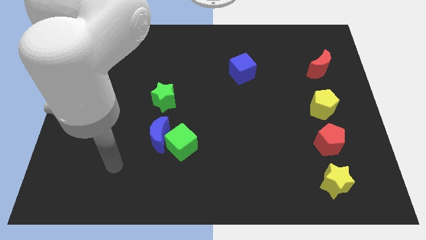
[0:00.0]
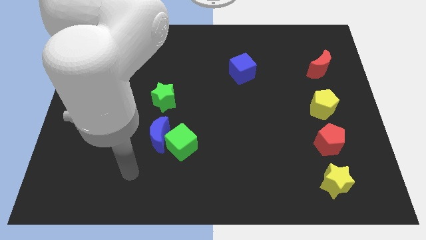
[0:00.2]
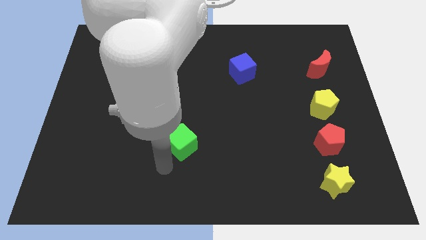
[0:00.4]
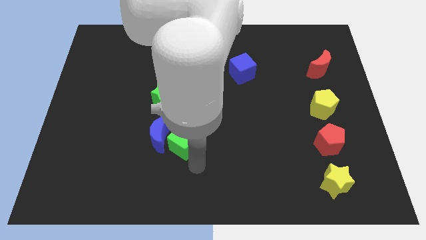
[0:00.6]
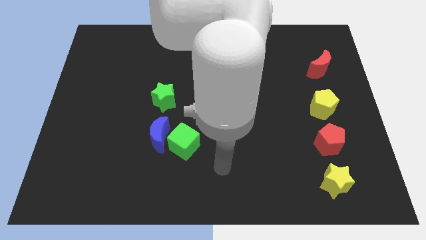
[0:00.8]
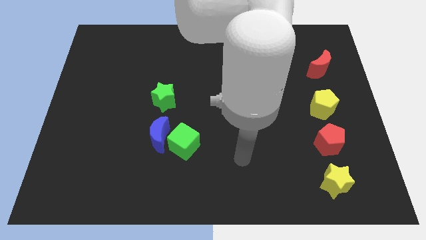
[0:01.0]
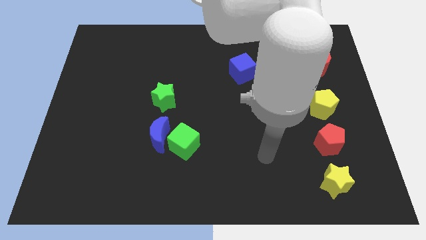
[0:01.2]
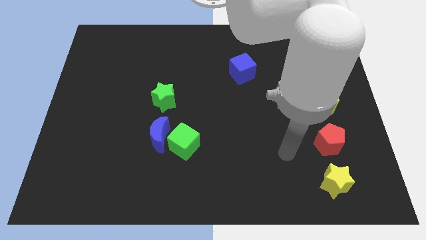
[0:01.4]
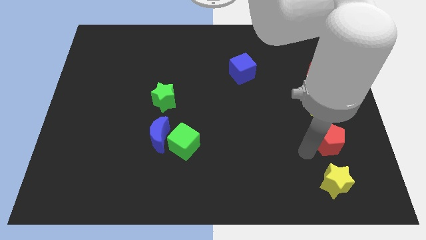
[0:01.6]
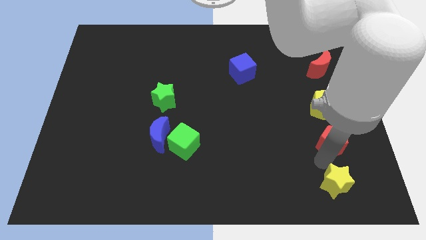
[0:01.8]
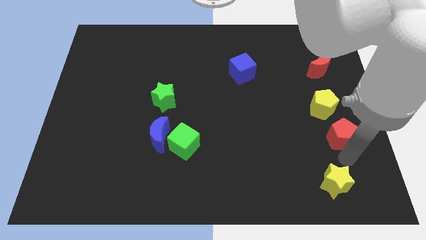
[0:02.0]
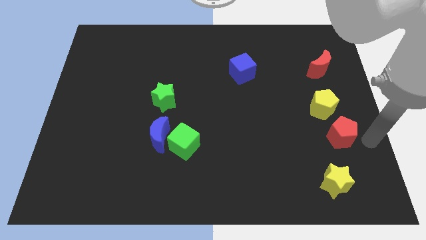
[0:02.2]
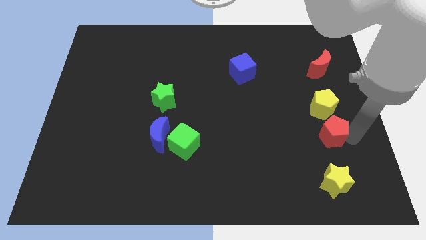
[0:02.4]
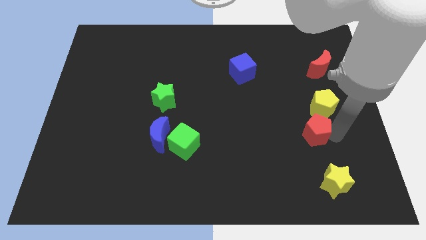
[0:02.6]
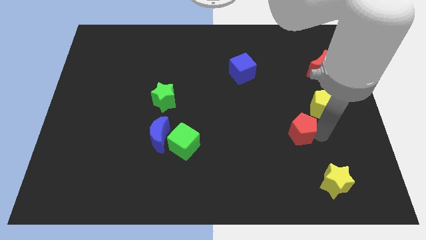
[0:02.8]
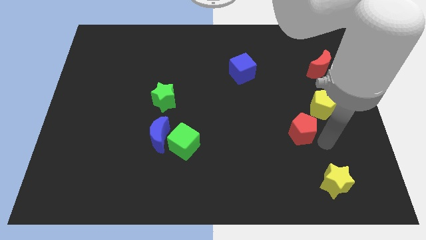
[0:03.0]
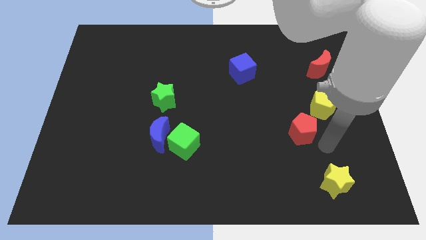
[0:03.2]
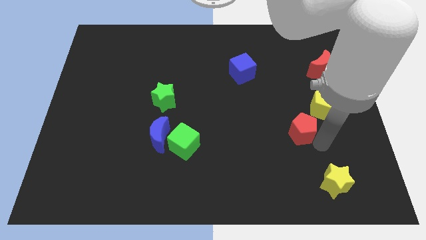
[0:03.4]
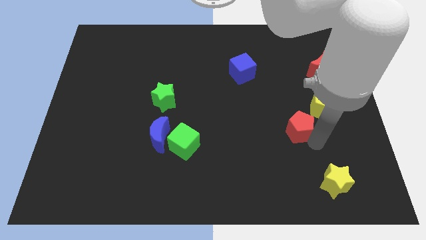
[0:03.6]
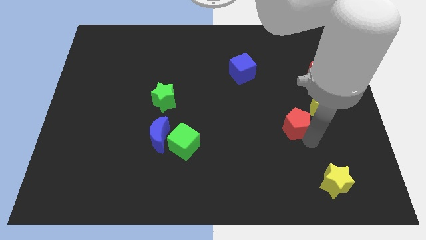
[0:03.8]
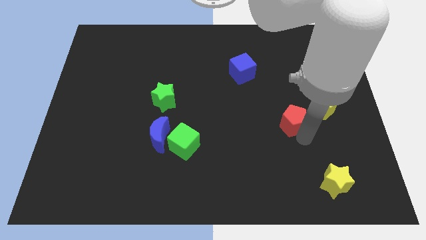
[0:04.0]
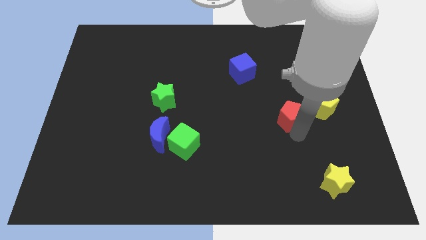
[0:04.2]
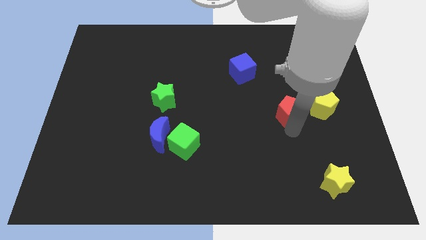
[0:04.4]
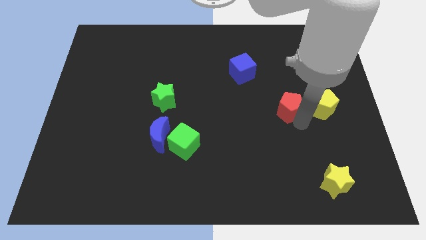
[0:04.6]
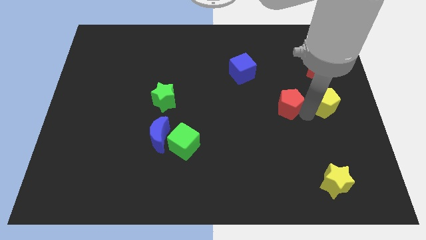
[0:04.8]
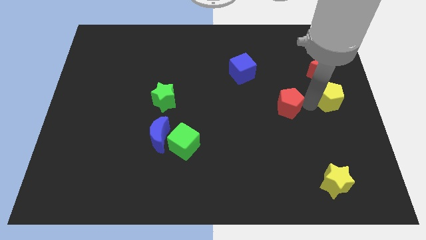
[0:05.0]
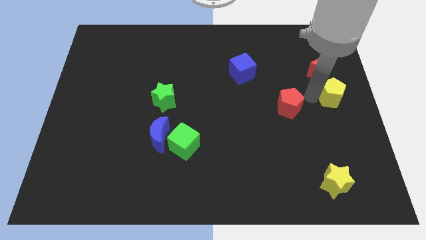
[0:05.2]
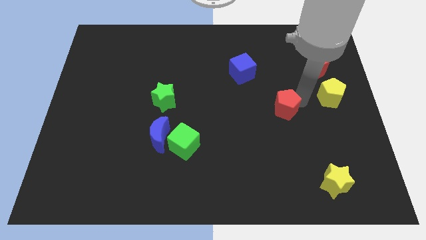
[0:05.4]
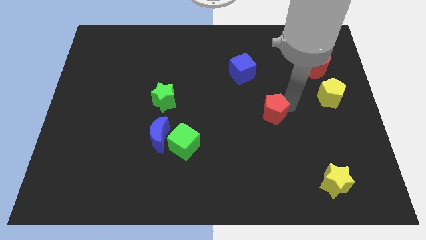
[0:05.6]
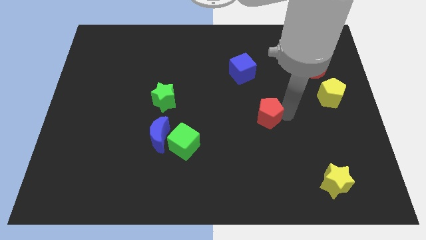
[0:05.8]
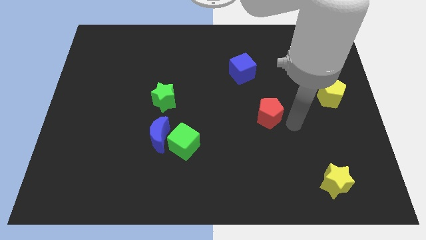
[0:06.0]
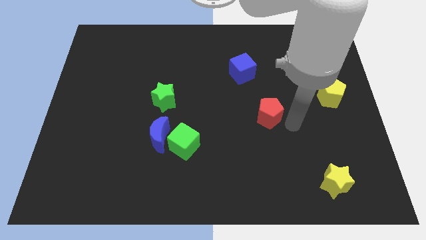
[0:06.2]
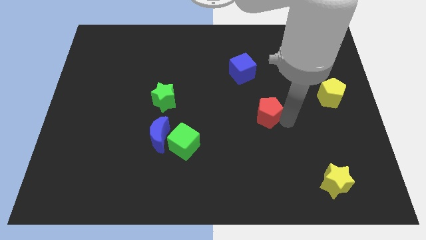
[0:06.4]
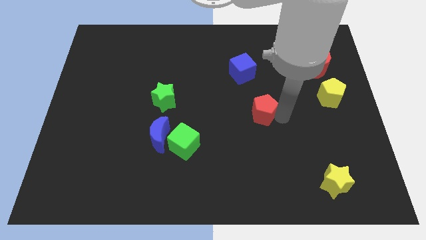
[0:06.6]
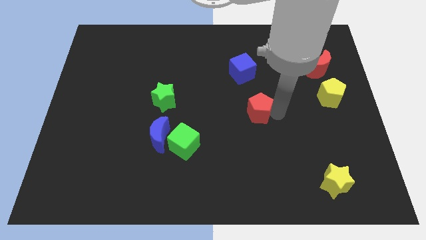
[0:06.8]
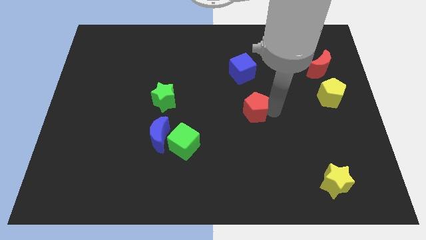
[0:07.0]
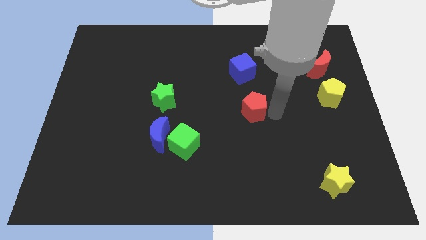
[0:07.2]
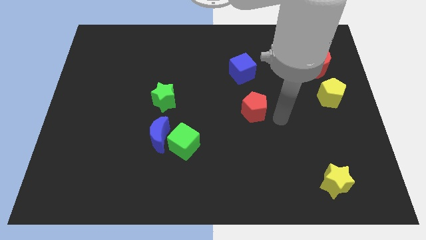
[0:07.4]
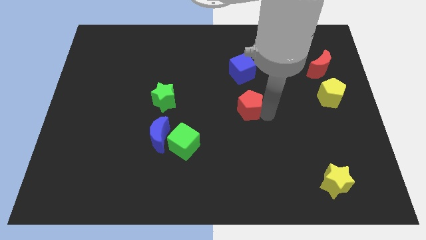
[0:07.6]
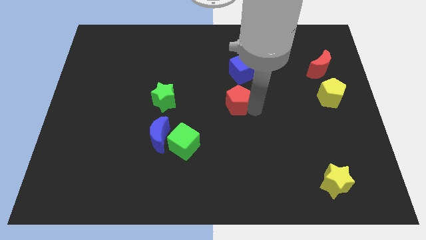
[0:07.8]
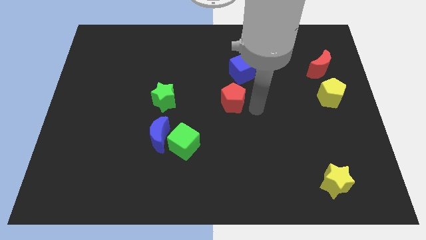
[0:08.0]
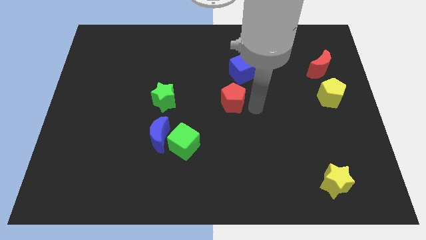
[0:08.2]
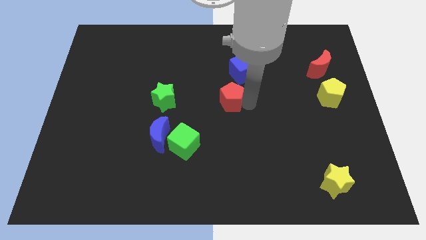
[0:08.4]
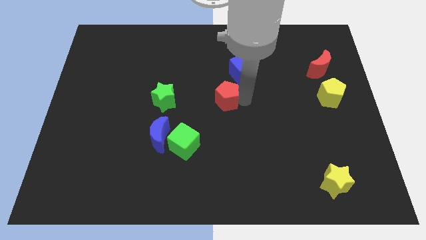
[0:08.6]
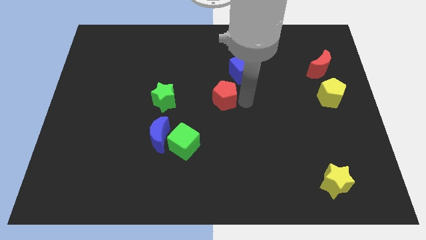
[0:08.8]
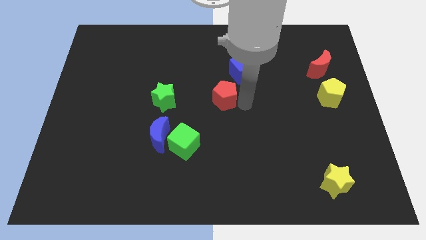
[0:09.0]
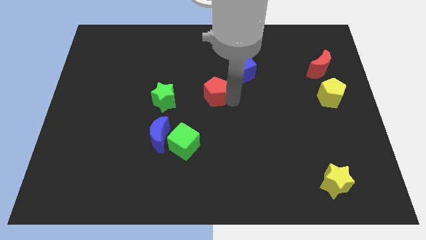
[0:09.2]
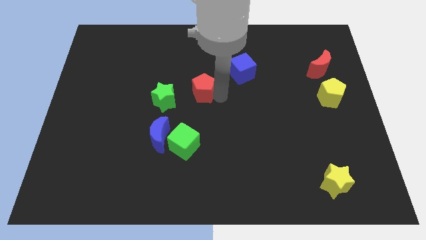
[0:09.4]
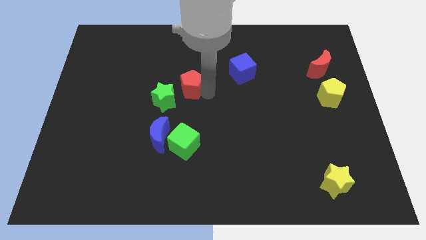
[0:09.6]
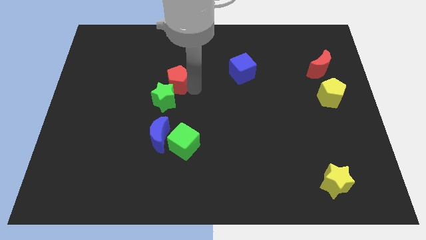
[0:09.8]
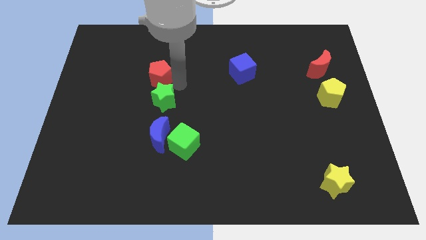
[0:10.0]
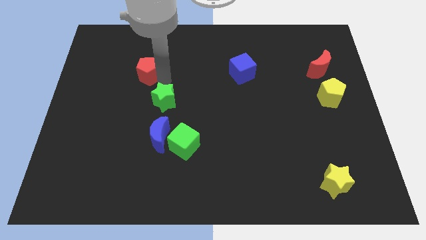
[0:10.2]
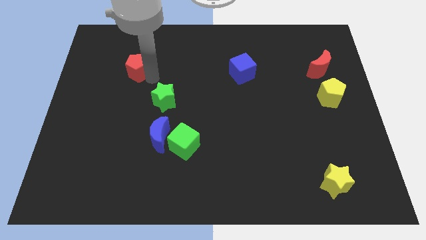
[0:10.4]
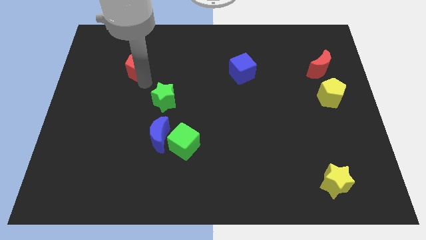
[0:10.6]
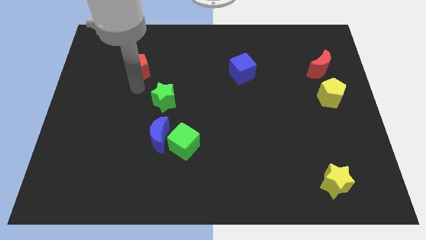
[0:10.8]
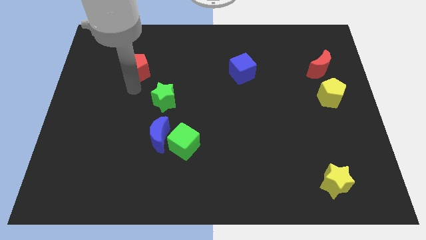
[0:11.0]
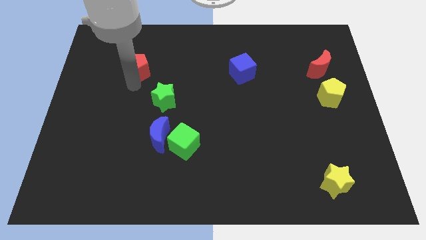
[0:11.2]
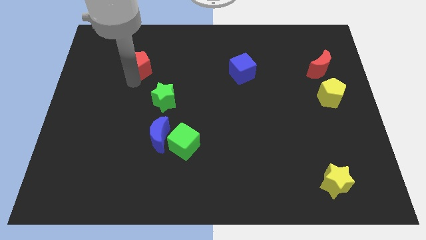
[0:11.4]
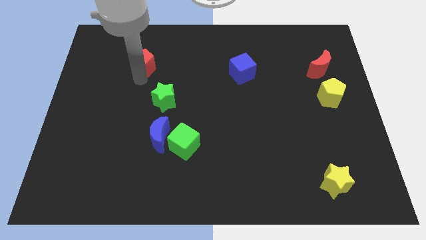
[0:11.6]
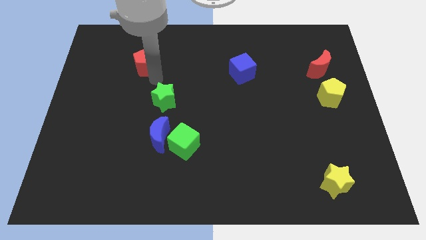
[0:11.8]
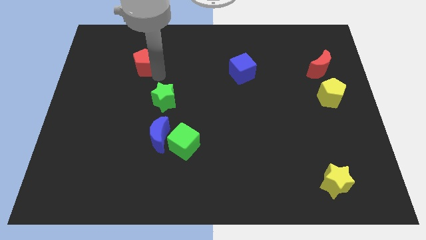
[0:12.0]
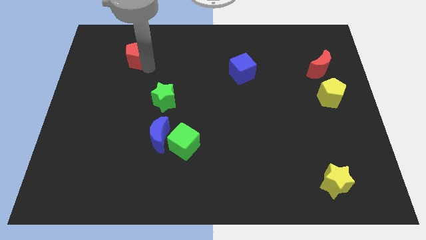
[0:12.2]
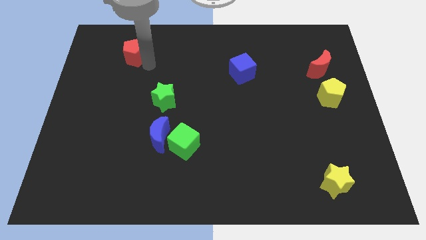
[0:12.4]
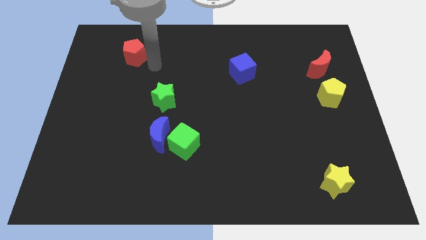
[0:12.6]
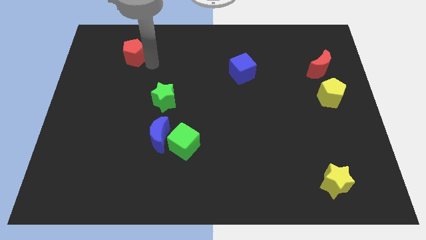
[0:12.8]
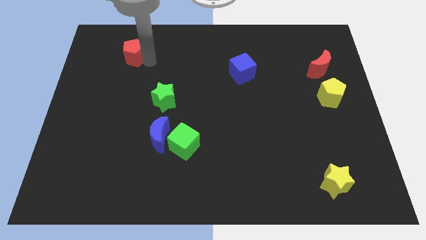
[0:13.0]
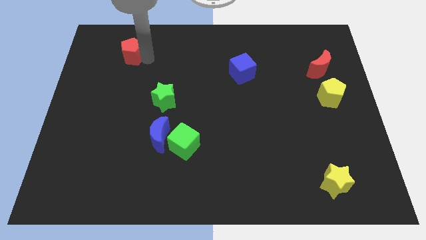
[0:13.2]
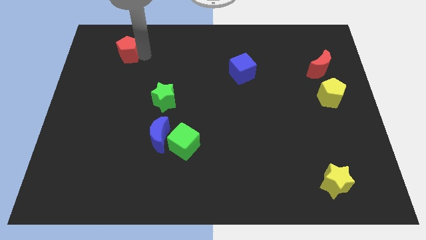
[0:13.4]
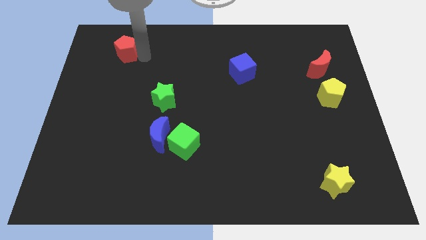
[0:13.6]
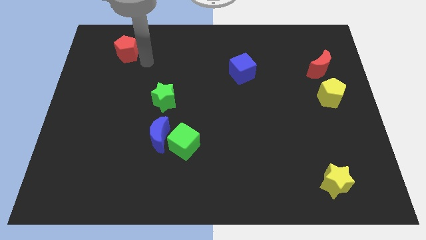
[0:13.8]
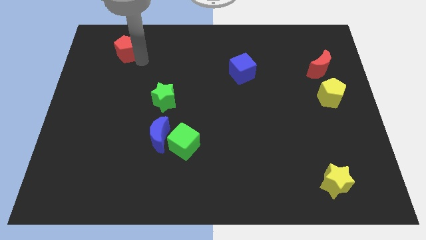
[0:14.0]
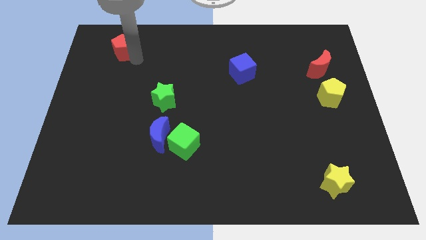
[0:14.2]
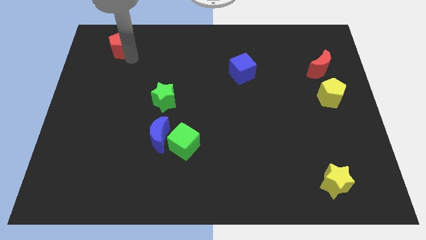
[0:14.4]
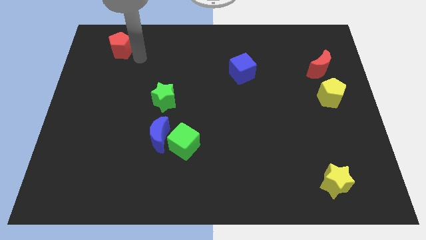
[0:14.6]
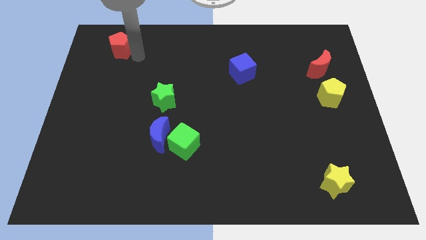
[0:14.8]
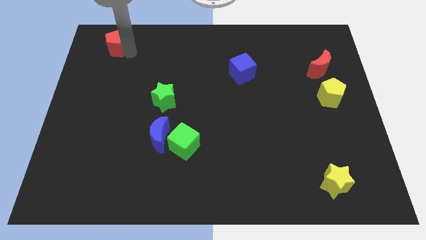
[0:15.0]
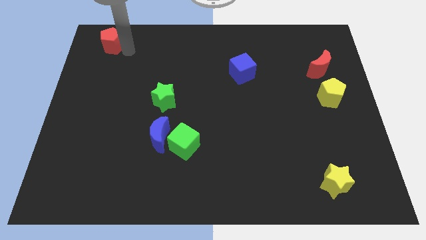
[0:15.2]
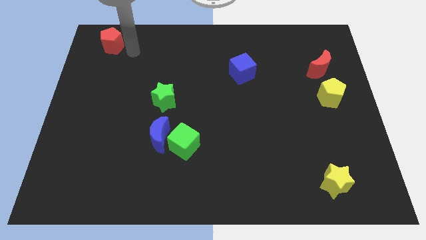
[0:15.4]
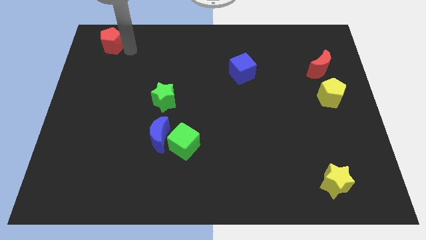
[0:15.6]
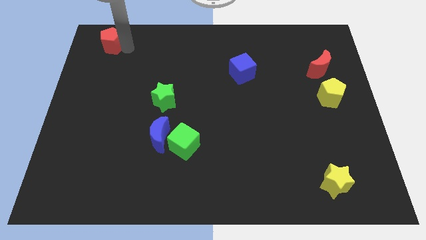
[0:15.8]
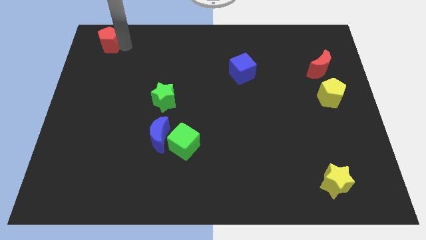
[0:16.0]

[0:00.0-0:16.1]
put the red pentagon to the upper left corner

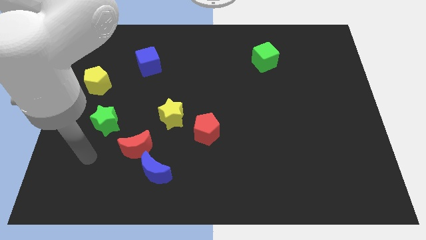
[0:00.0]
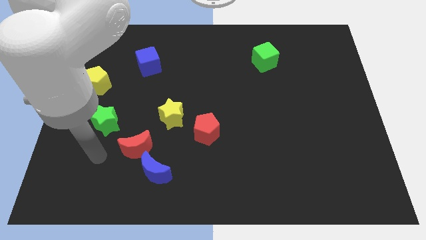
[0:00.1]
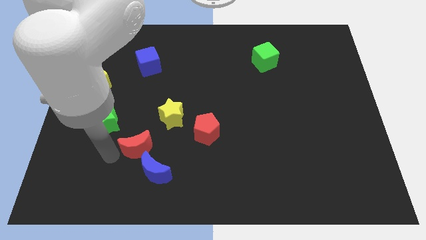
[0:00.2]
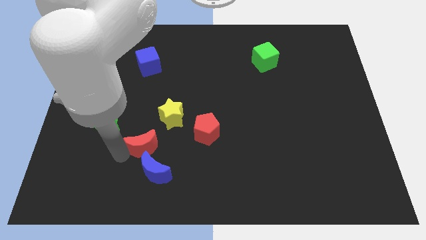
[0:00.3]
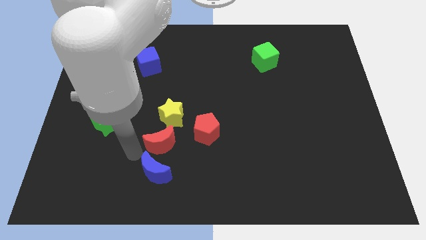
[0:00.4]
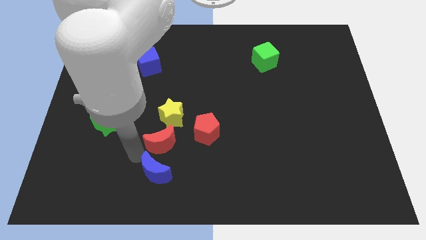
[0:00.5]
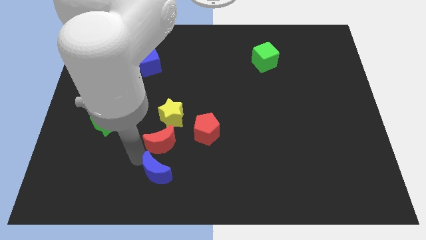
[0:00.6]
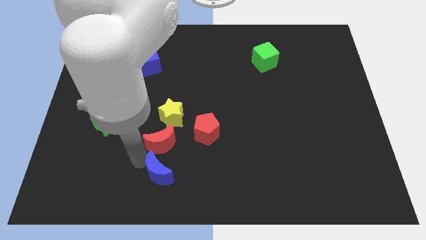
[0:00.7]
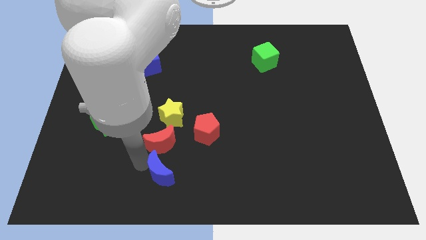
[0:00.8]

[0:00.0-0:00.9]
put the blue moon to the bottom
